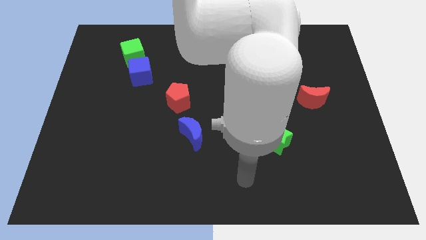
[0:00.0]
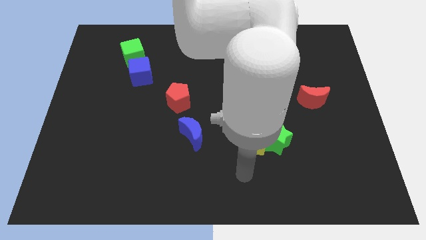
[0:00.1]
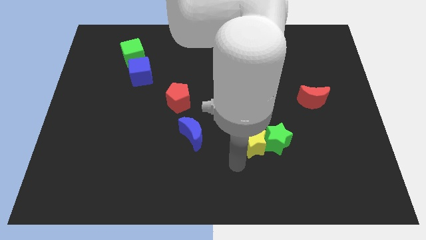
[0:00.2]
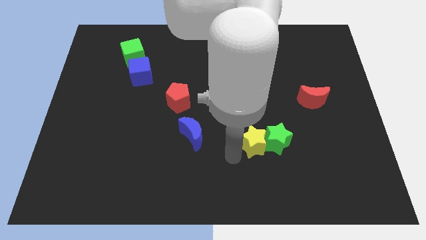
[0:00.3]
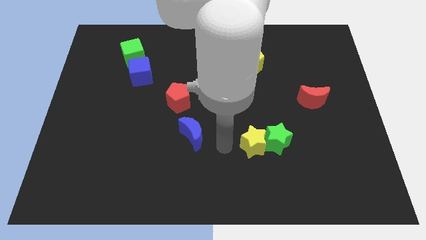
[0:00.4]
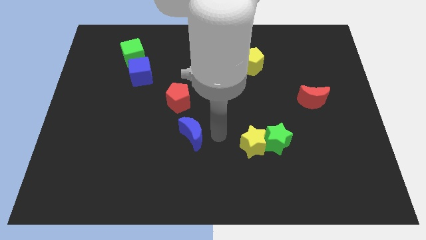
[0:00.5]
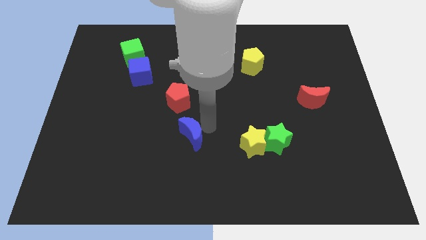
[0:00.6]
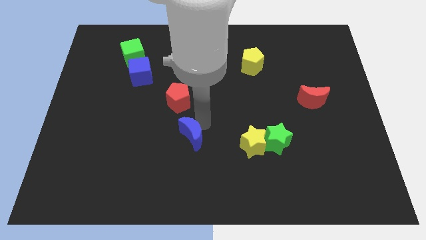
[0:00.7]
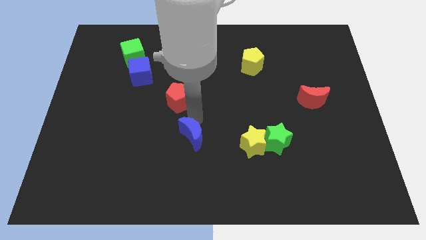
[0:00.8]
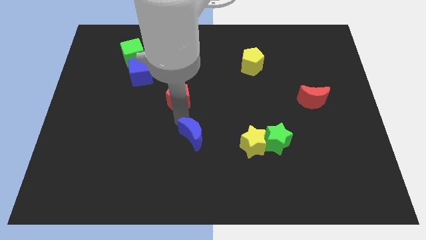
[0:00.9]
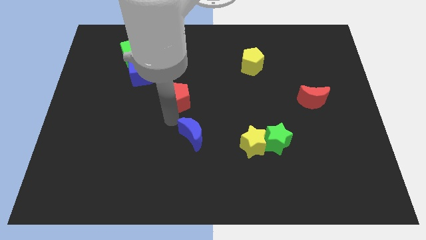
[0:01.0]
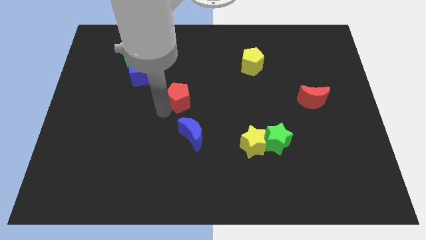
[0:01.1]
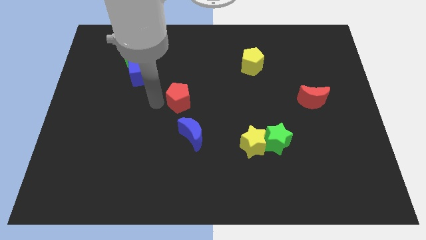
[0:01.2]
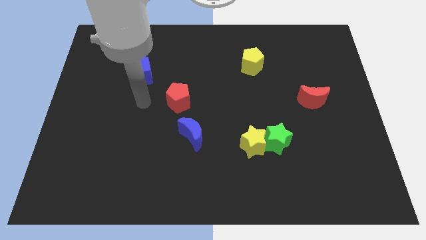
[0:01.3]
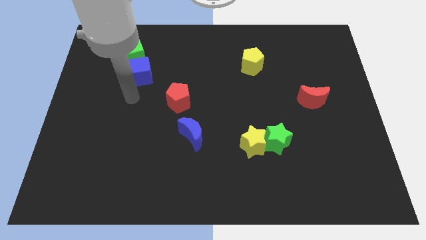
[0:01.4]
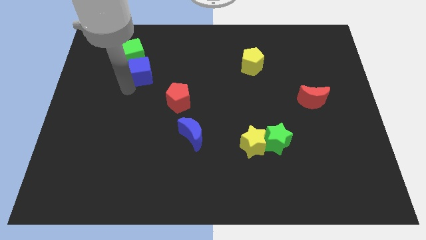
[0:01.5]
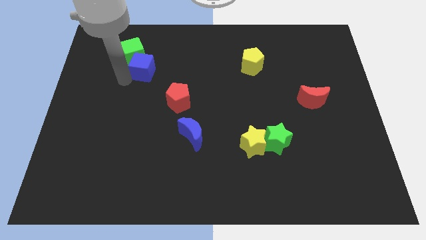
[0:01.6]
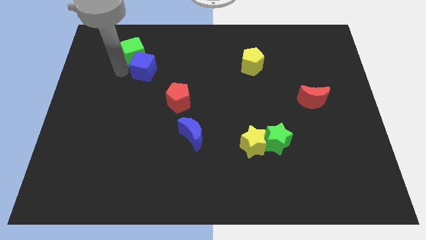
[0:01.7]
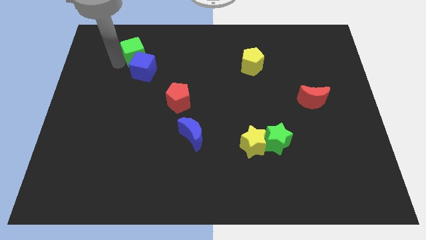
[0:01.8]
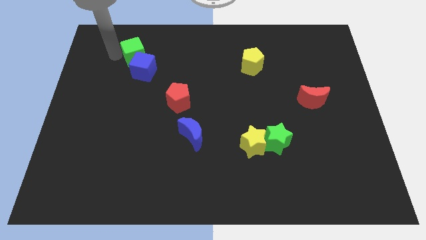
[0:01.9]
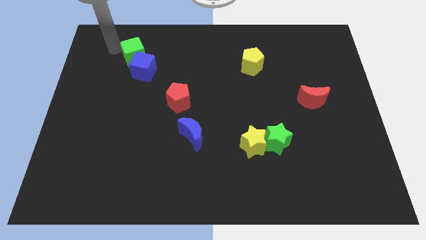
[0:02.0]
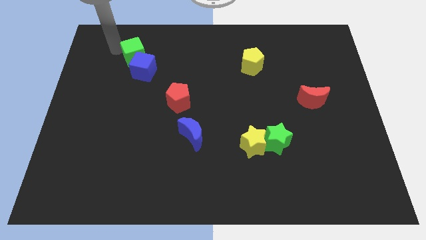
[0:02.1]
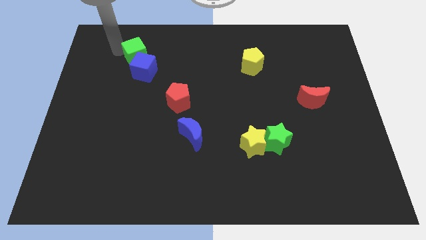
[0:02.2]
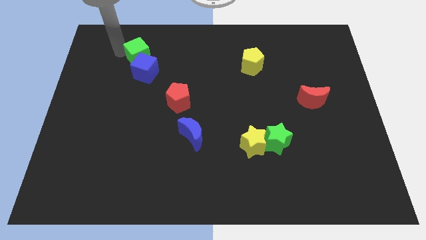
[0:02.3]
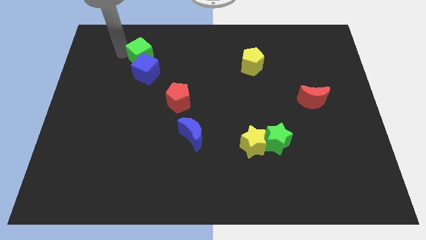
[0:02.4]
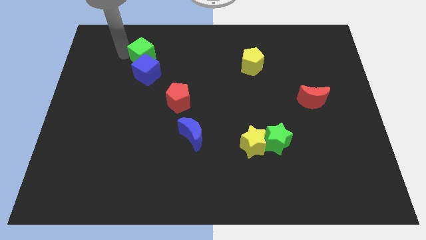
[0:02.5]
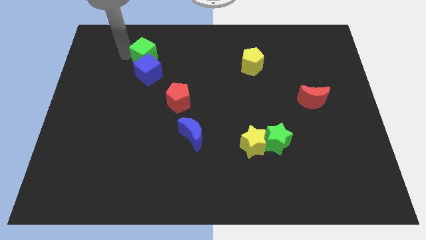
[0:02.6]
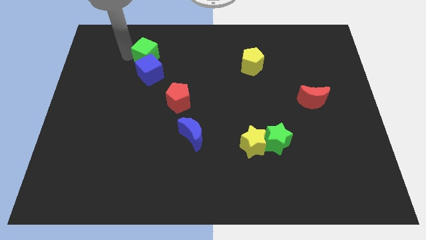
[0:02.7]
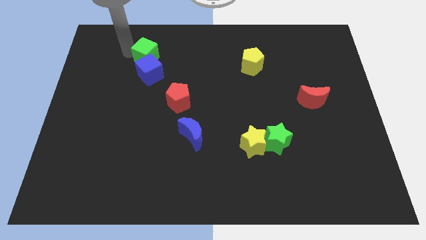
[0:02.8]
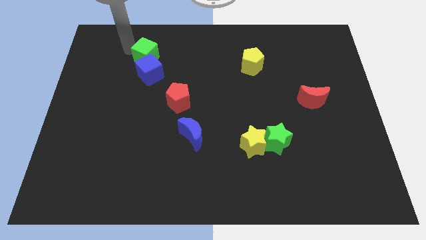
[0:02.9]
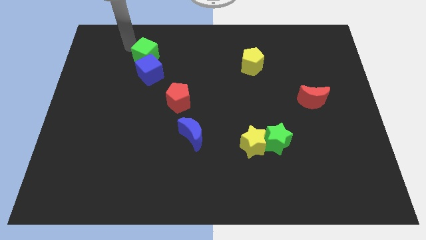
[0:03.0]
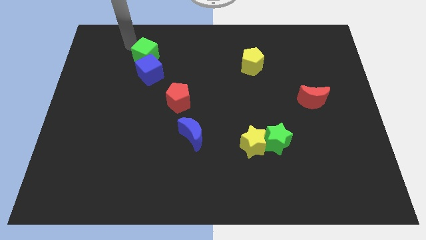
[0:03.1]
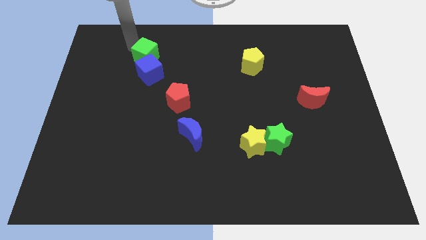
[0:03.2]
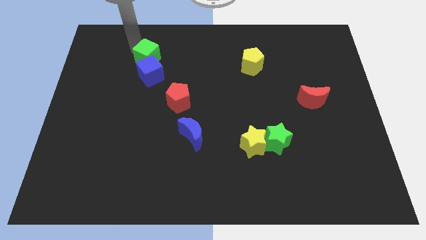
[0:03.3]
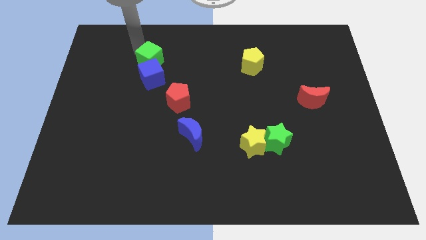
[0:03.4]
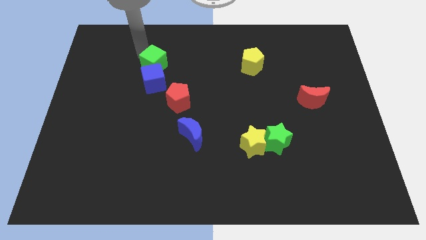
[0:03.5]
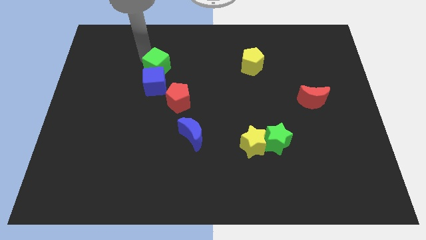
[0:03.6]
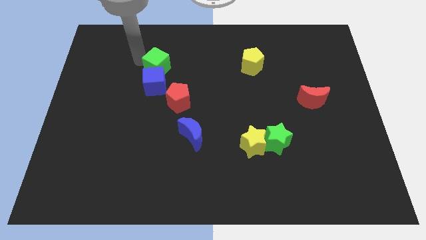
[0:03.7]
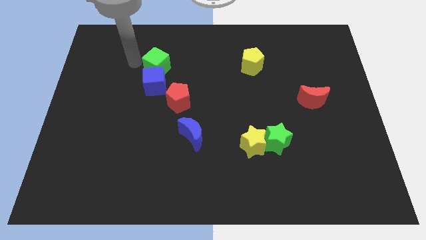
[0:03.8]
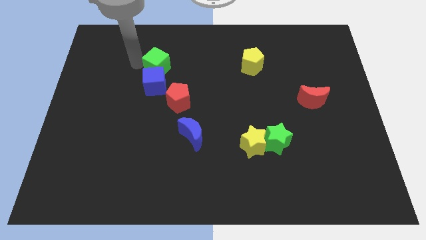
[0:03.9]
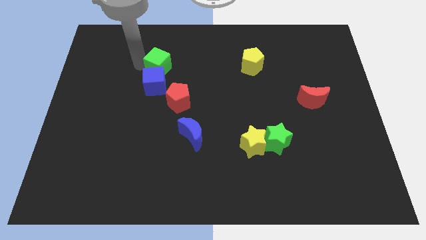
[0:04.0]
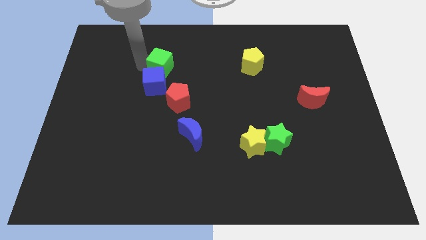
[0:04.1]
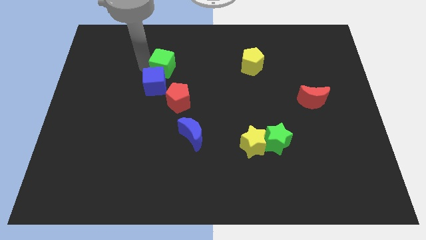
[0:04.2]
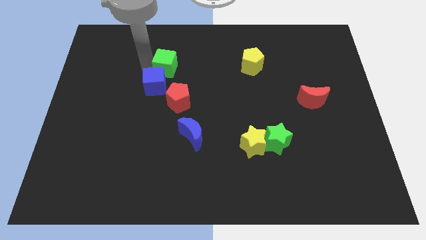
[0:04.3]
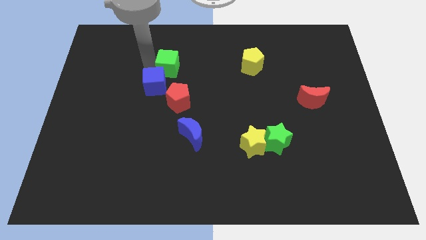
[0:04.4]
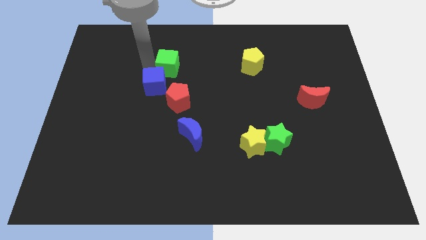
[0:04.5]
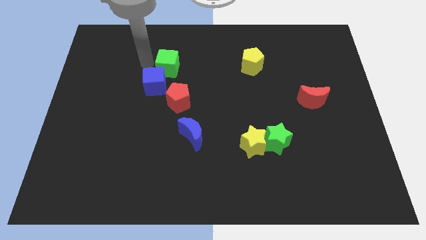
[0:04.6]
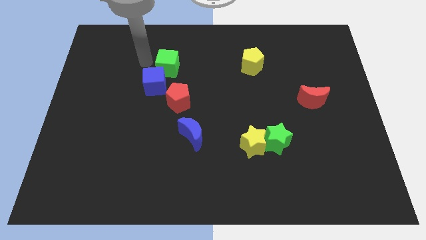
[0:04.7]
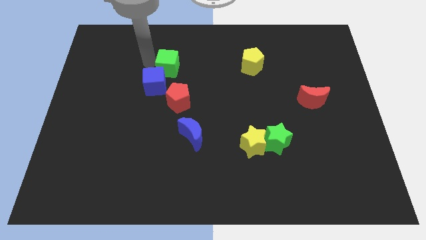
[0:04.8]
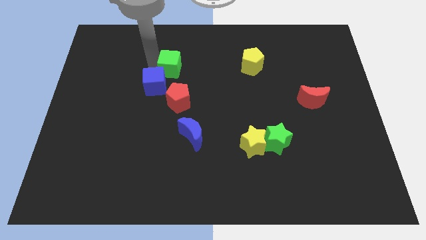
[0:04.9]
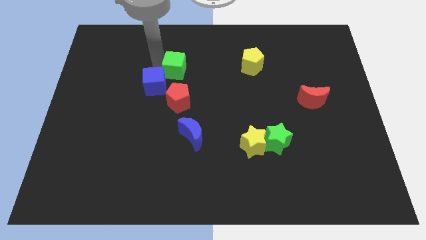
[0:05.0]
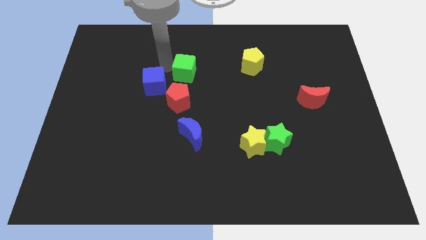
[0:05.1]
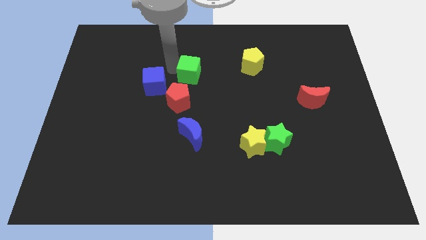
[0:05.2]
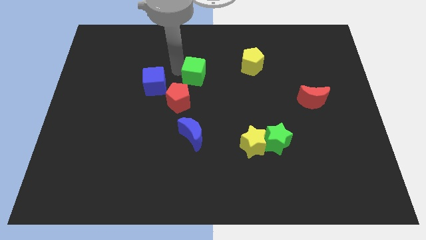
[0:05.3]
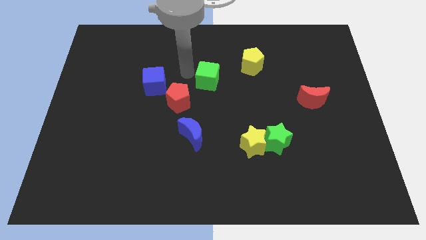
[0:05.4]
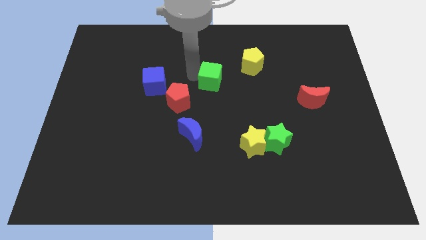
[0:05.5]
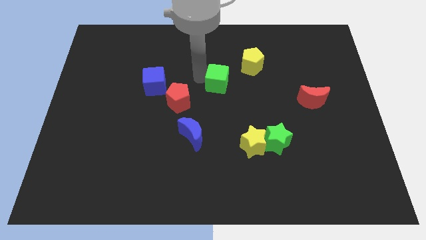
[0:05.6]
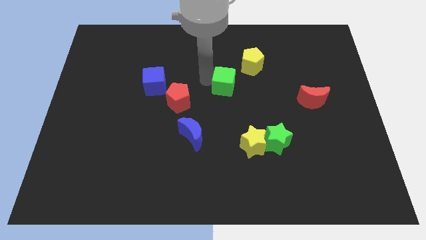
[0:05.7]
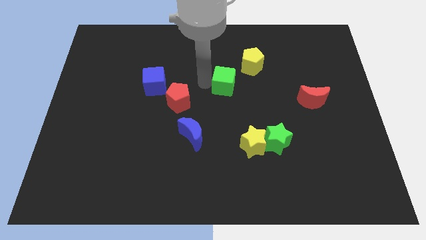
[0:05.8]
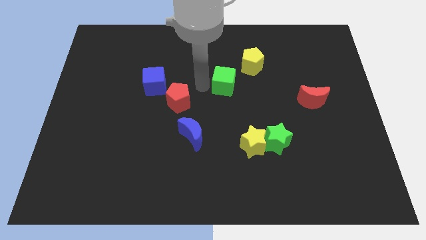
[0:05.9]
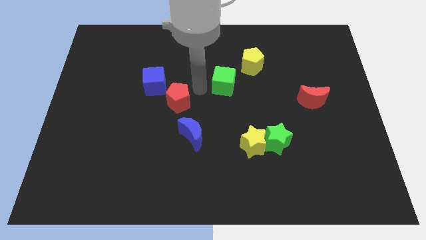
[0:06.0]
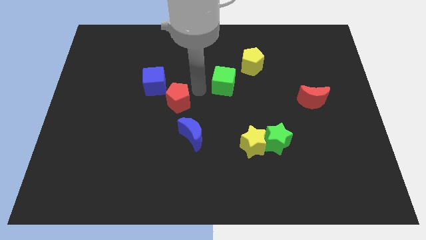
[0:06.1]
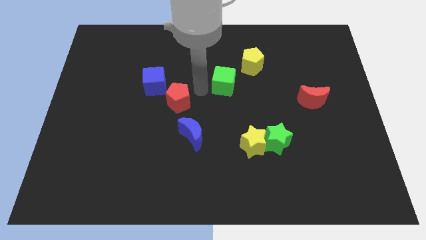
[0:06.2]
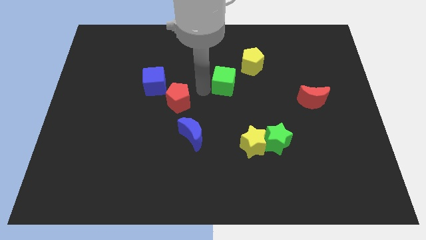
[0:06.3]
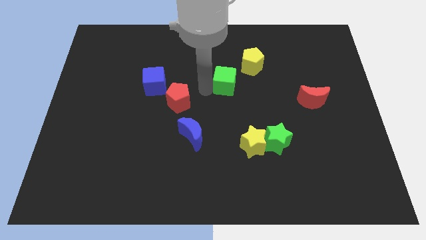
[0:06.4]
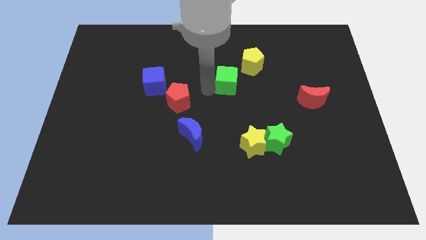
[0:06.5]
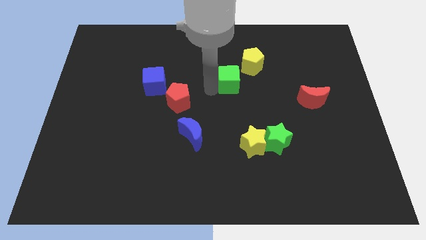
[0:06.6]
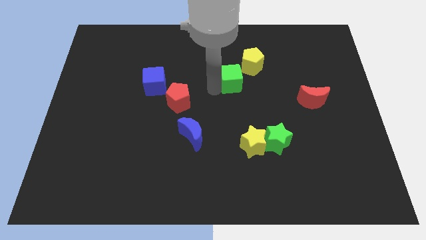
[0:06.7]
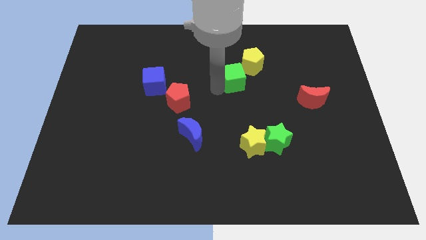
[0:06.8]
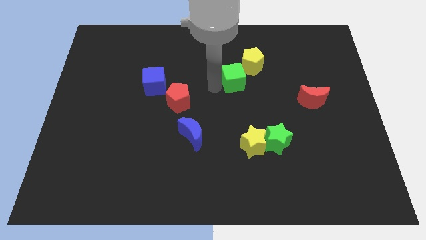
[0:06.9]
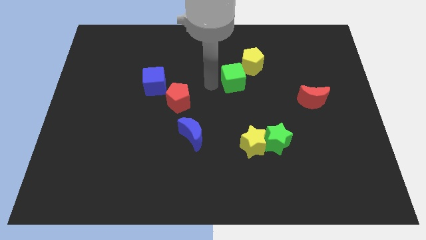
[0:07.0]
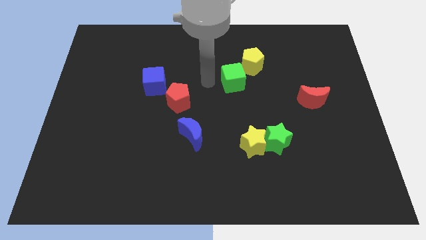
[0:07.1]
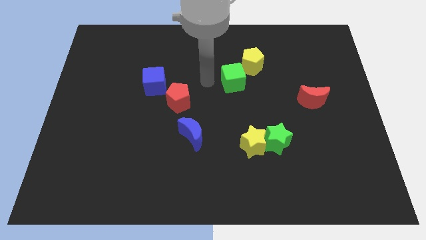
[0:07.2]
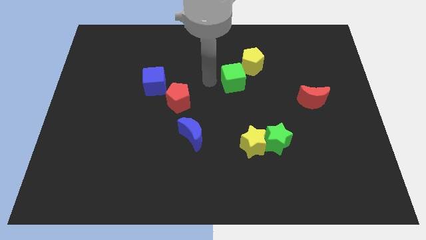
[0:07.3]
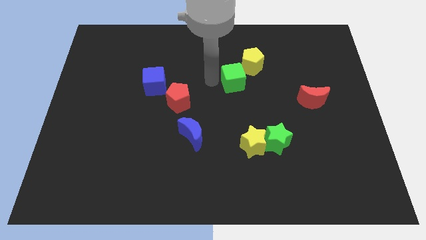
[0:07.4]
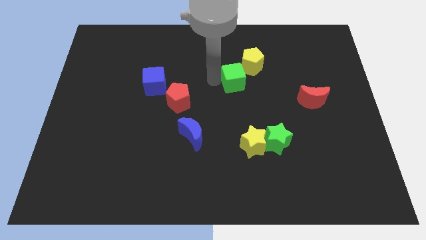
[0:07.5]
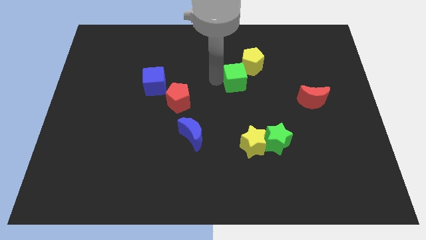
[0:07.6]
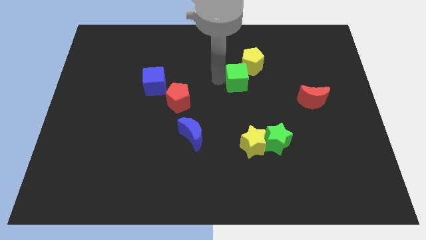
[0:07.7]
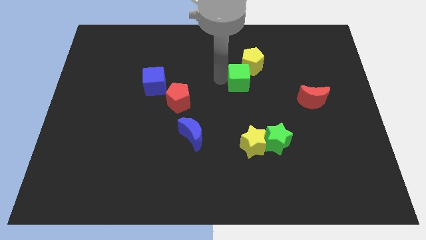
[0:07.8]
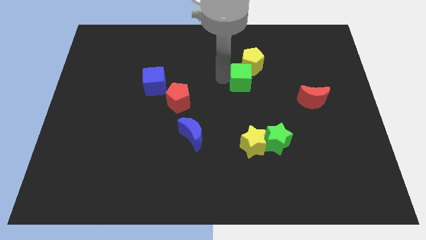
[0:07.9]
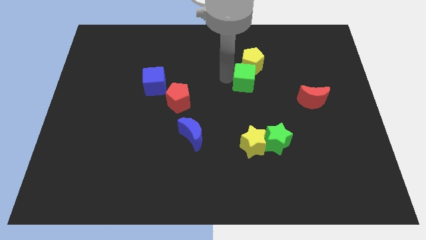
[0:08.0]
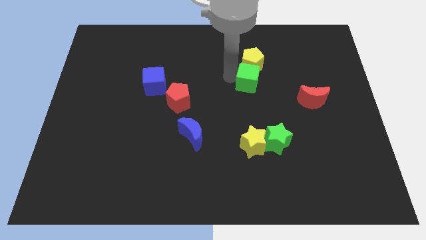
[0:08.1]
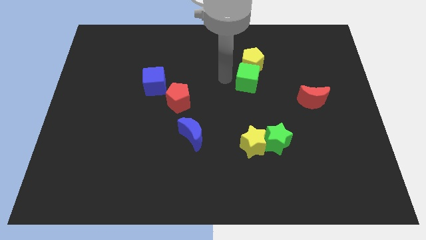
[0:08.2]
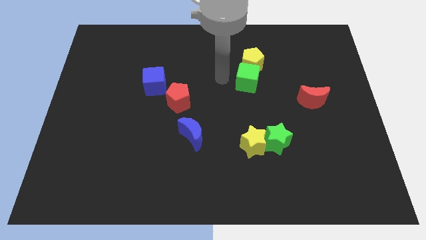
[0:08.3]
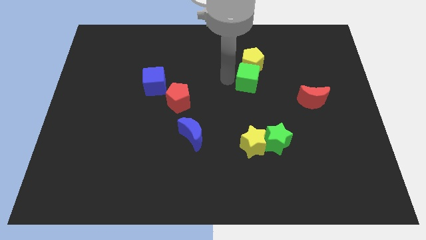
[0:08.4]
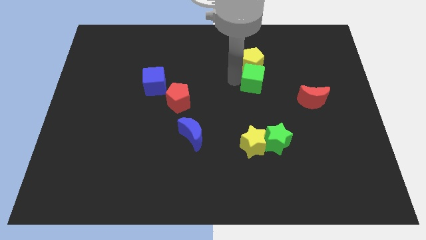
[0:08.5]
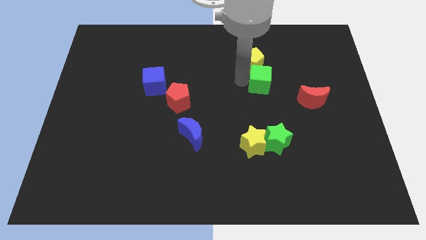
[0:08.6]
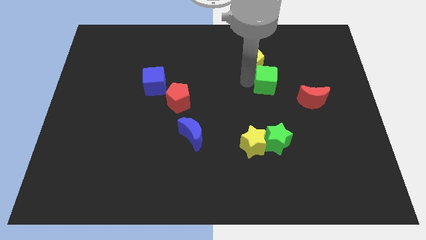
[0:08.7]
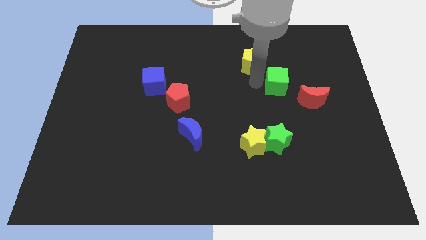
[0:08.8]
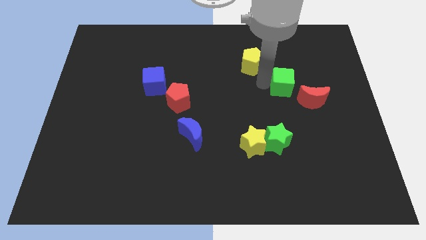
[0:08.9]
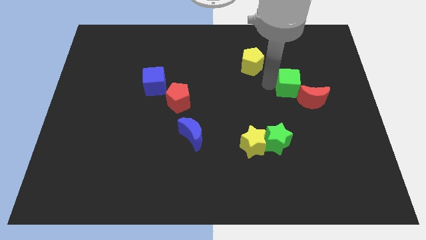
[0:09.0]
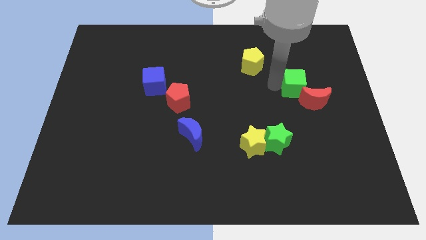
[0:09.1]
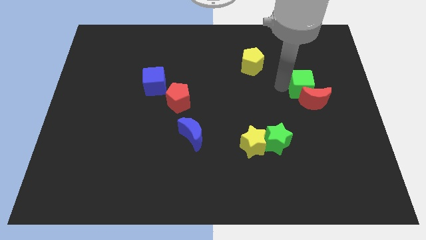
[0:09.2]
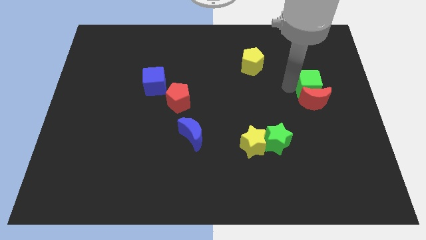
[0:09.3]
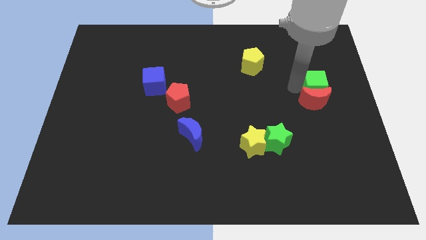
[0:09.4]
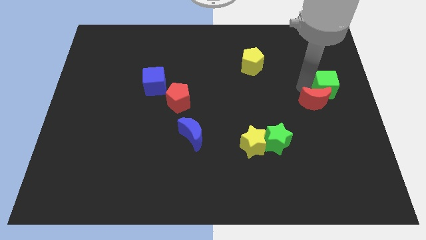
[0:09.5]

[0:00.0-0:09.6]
move the green cube to the right side of the board
